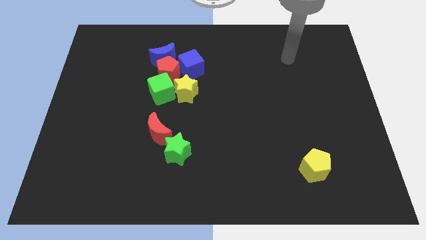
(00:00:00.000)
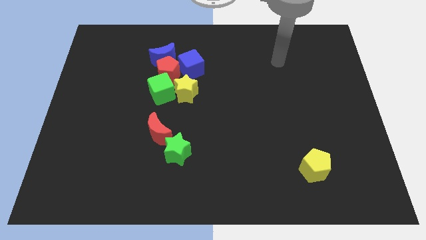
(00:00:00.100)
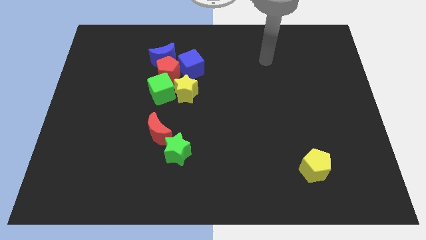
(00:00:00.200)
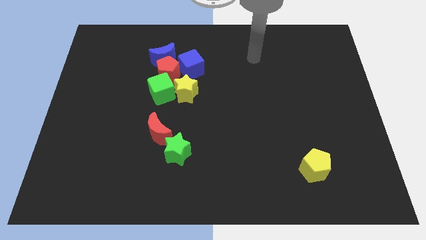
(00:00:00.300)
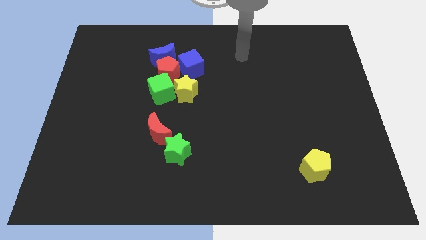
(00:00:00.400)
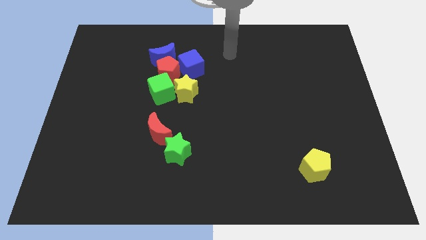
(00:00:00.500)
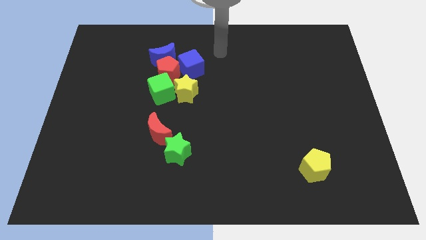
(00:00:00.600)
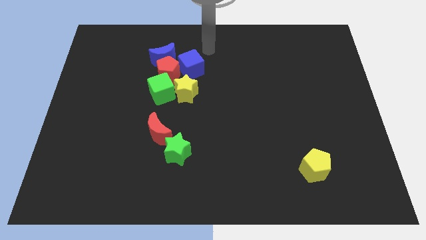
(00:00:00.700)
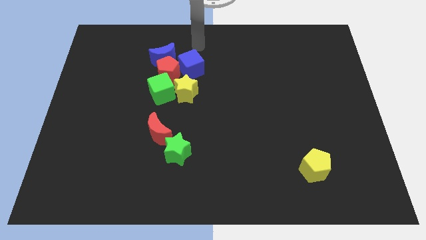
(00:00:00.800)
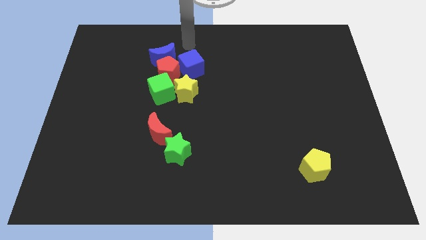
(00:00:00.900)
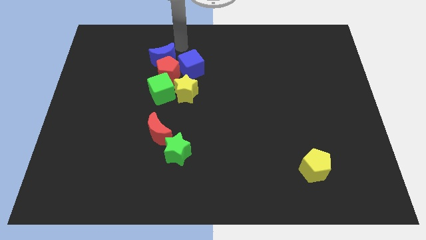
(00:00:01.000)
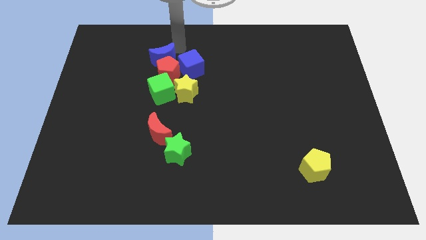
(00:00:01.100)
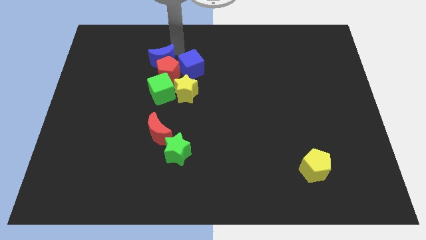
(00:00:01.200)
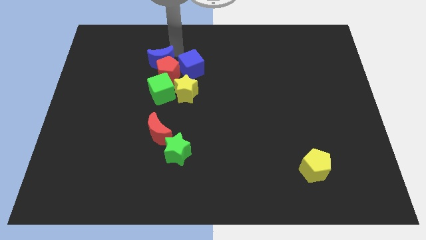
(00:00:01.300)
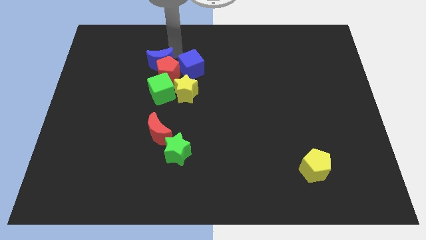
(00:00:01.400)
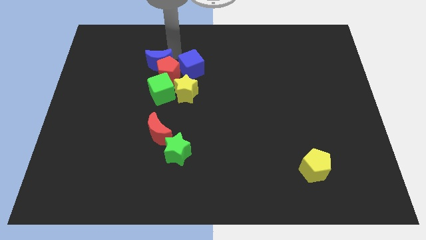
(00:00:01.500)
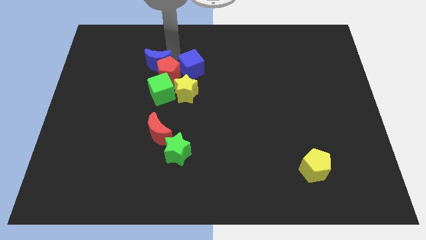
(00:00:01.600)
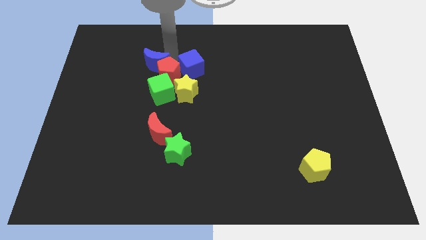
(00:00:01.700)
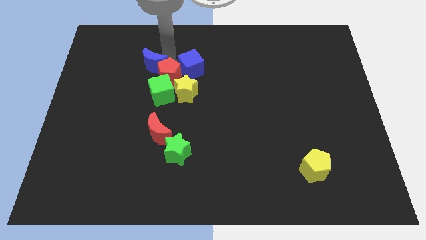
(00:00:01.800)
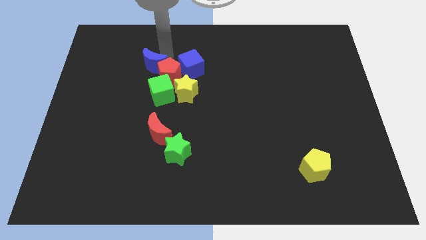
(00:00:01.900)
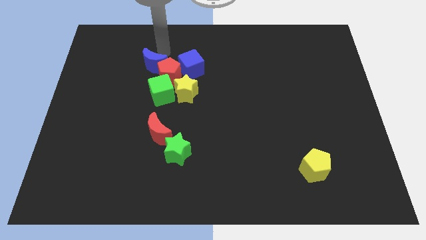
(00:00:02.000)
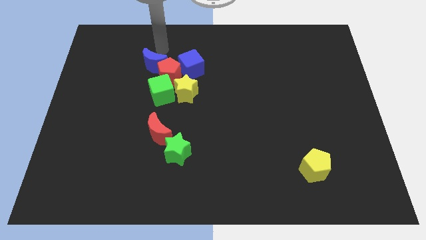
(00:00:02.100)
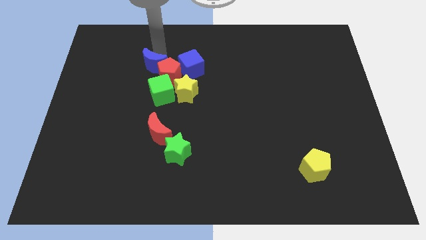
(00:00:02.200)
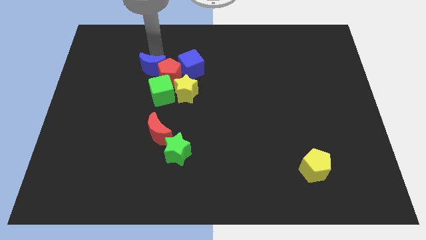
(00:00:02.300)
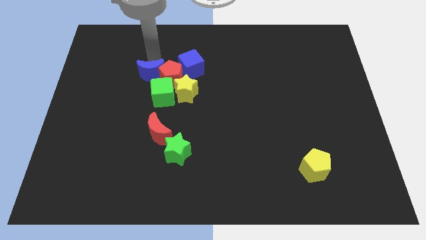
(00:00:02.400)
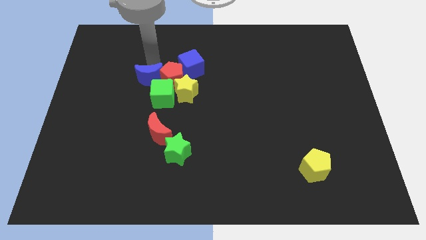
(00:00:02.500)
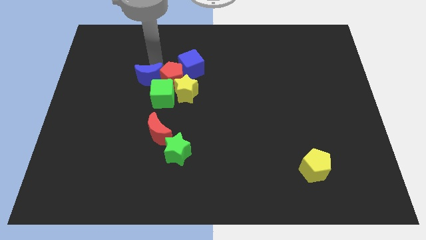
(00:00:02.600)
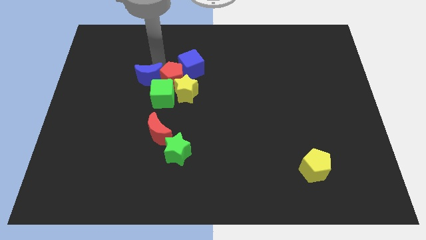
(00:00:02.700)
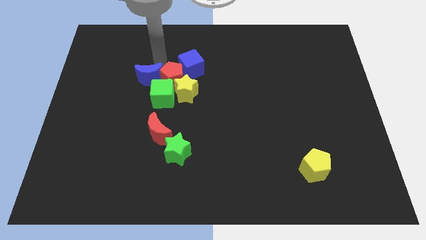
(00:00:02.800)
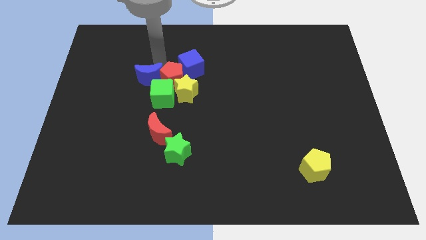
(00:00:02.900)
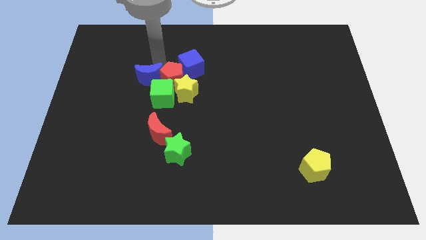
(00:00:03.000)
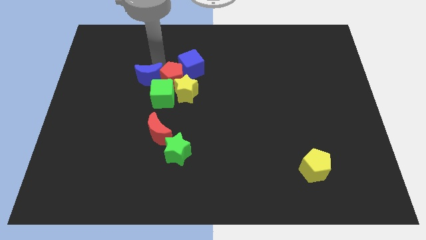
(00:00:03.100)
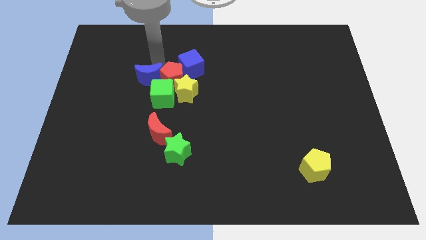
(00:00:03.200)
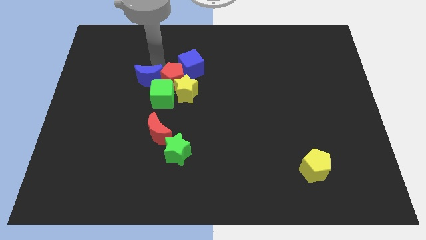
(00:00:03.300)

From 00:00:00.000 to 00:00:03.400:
move the blue moon slightly downwards

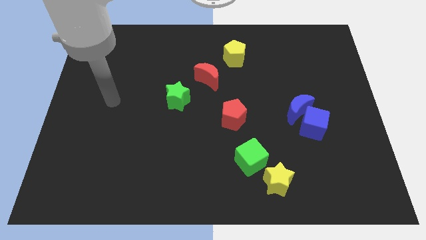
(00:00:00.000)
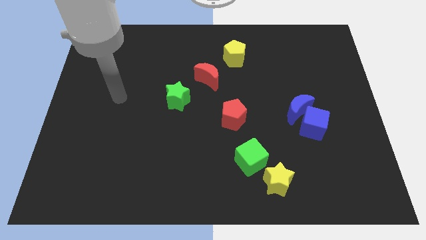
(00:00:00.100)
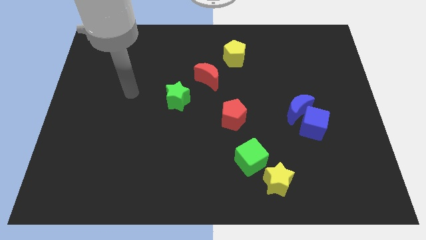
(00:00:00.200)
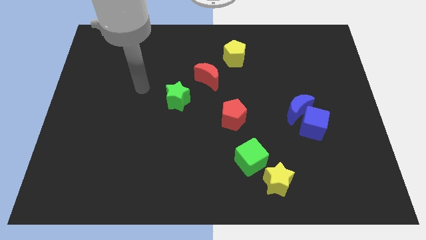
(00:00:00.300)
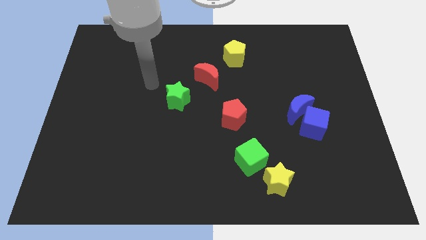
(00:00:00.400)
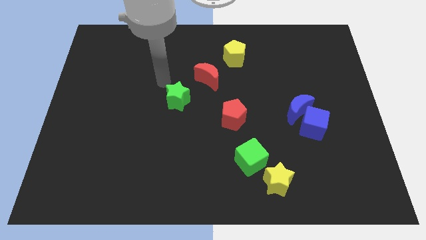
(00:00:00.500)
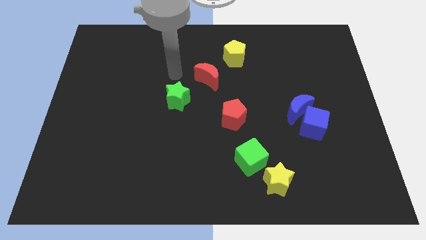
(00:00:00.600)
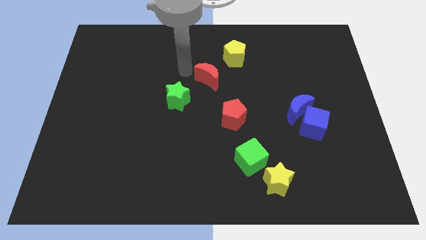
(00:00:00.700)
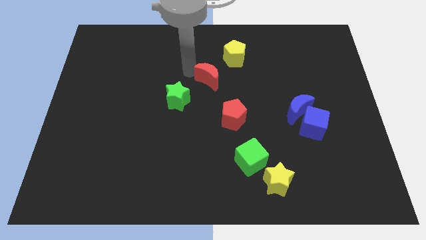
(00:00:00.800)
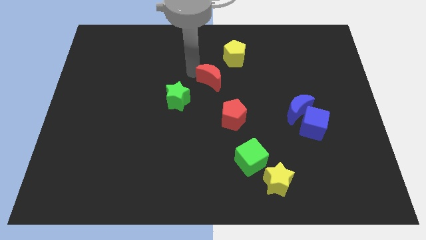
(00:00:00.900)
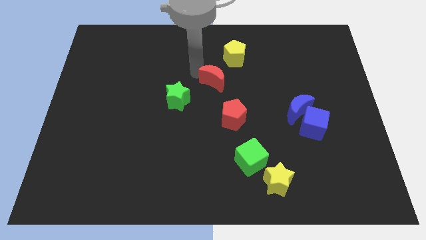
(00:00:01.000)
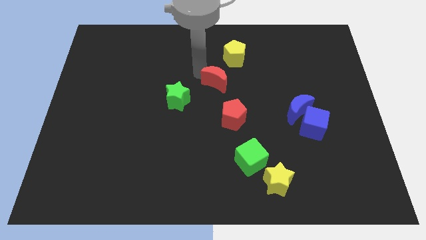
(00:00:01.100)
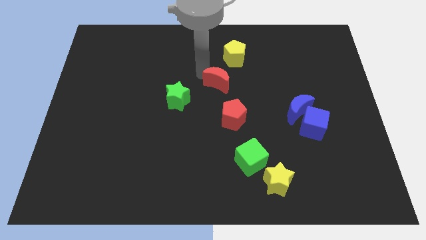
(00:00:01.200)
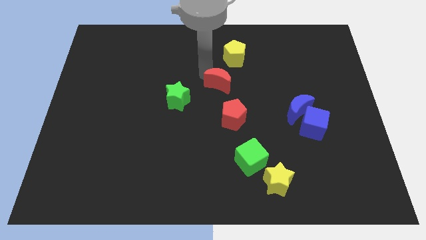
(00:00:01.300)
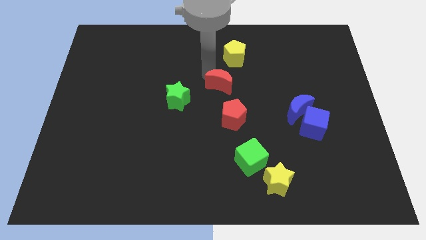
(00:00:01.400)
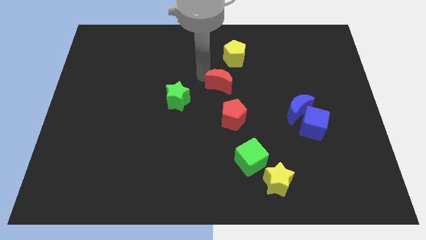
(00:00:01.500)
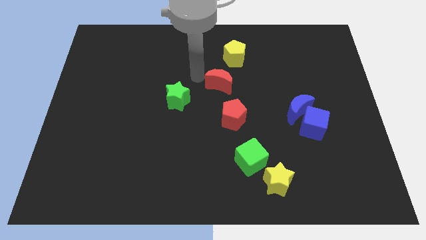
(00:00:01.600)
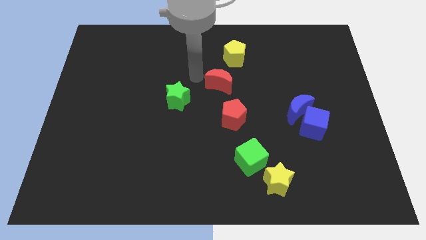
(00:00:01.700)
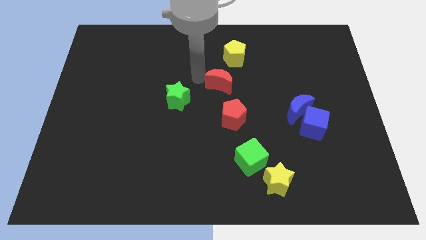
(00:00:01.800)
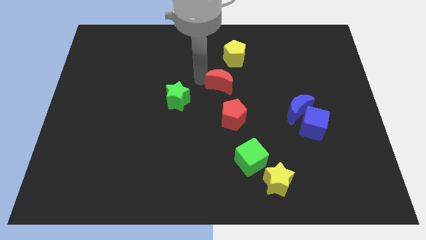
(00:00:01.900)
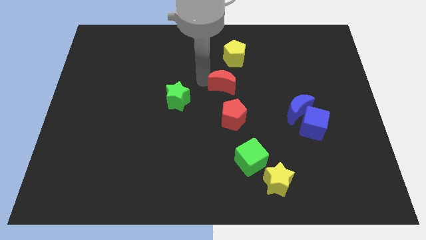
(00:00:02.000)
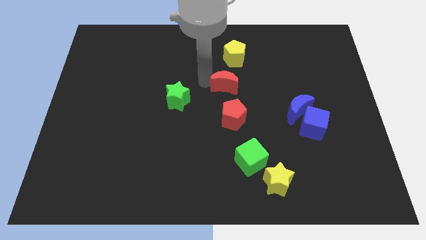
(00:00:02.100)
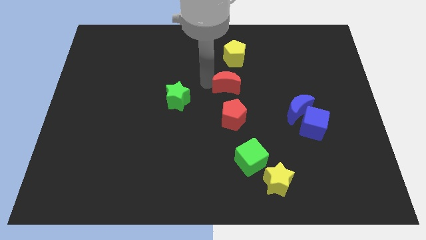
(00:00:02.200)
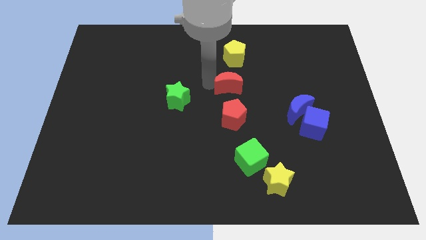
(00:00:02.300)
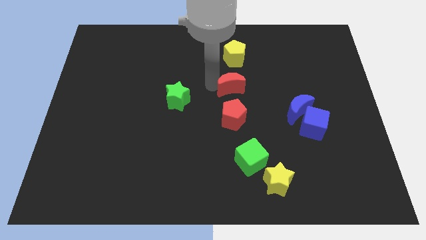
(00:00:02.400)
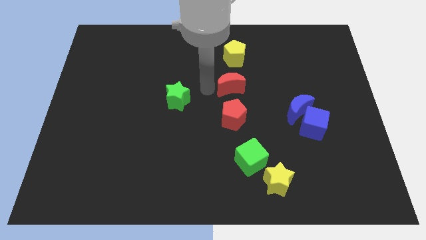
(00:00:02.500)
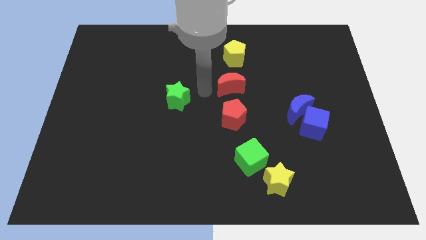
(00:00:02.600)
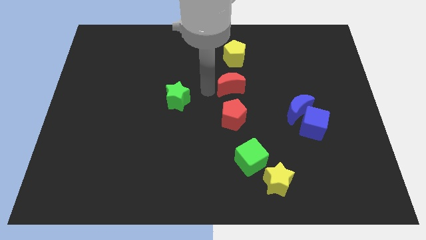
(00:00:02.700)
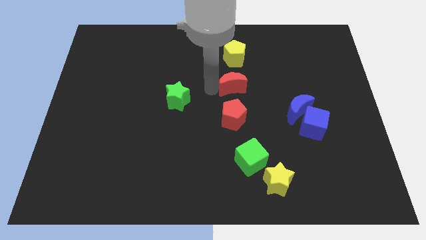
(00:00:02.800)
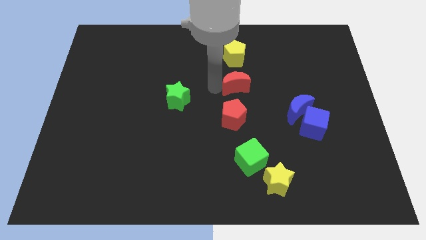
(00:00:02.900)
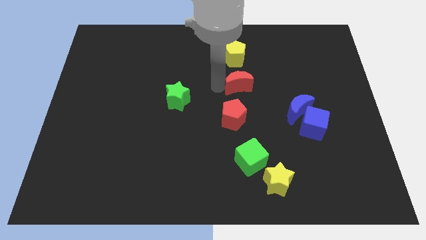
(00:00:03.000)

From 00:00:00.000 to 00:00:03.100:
move the red moon to the right a bit

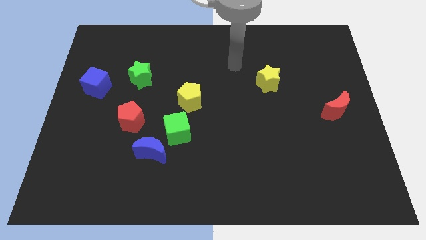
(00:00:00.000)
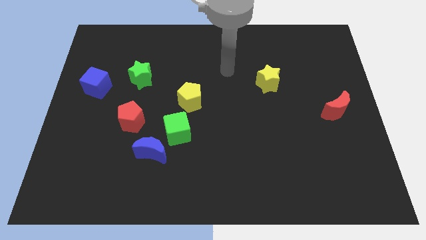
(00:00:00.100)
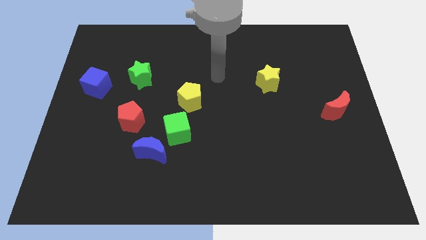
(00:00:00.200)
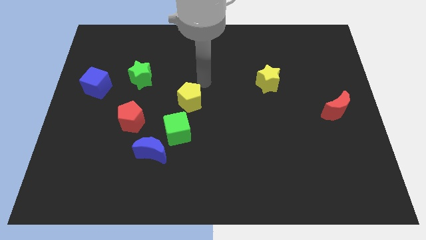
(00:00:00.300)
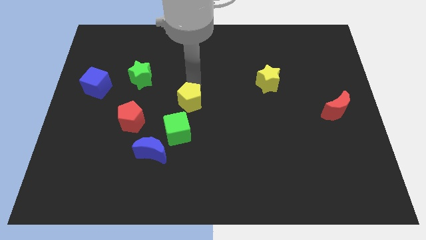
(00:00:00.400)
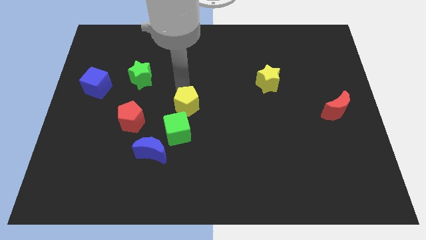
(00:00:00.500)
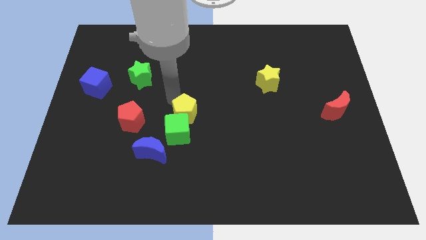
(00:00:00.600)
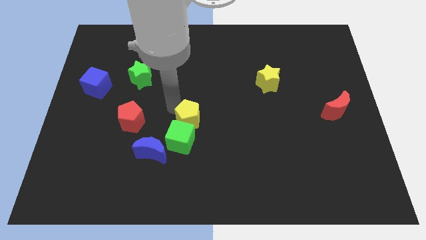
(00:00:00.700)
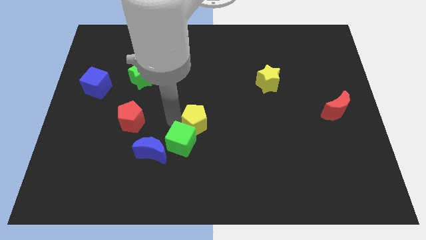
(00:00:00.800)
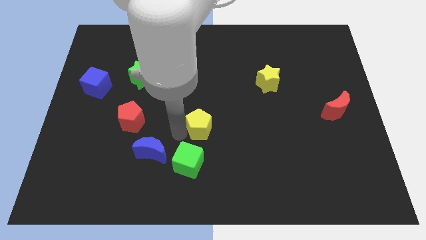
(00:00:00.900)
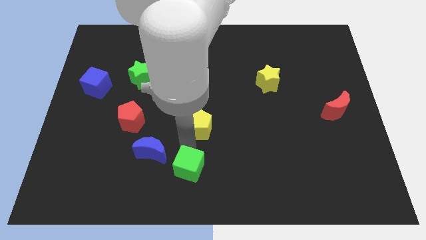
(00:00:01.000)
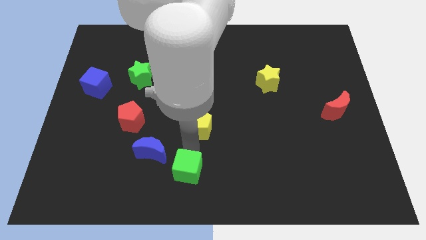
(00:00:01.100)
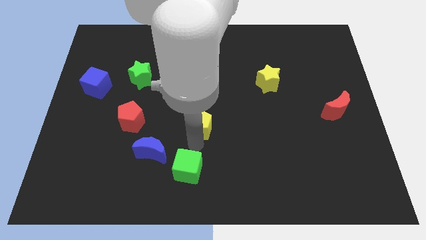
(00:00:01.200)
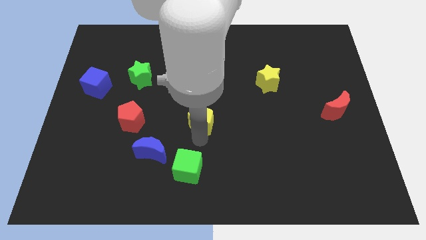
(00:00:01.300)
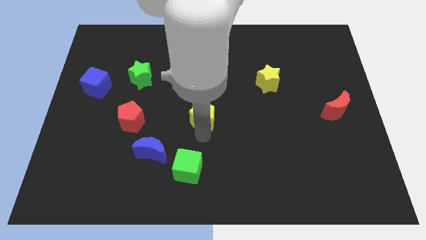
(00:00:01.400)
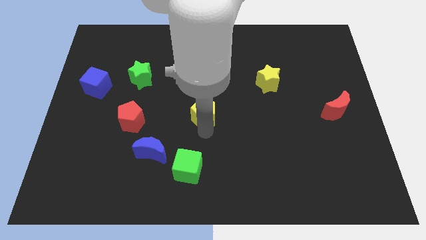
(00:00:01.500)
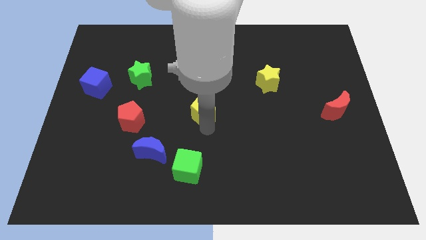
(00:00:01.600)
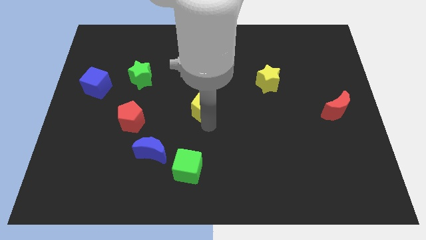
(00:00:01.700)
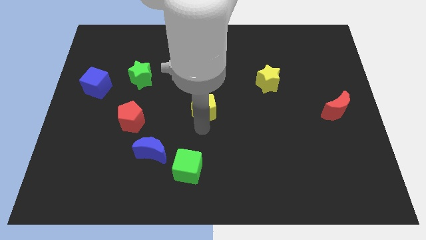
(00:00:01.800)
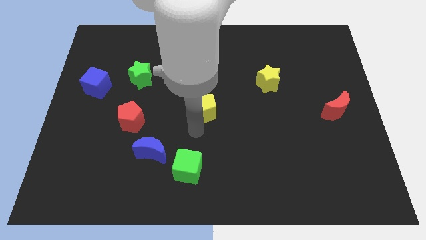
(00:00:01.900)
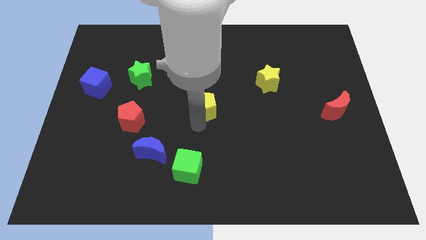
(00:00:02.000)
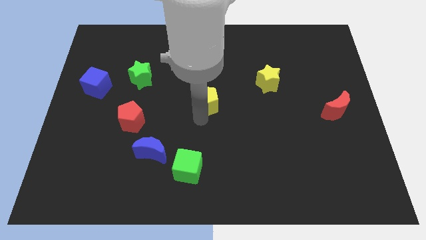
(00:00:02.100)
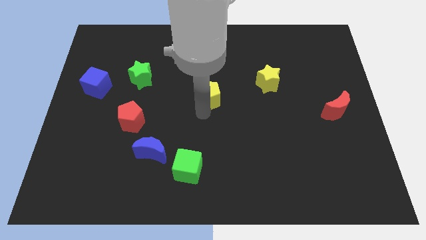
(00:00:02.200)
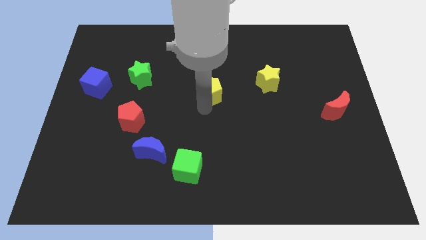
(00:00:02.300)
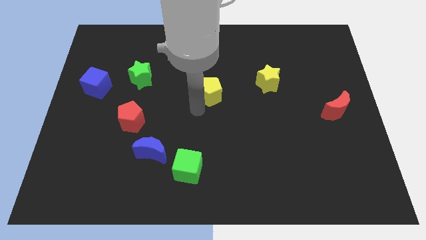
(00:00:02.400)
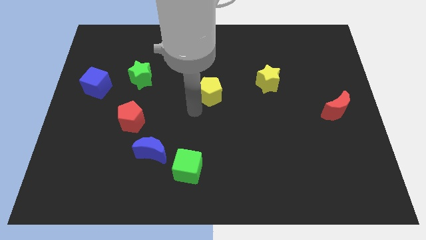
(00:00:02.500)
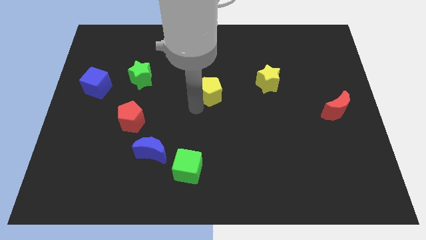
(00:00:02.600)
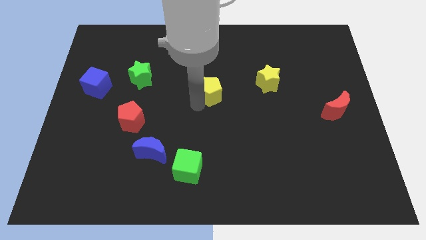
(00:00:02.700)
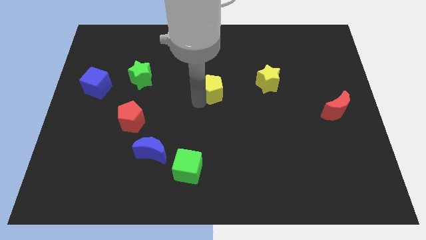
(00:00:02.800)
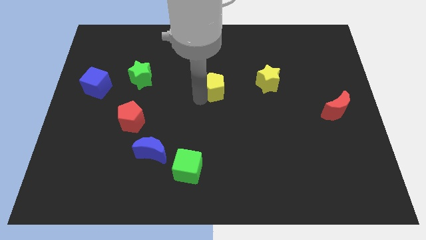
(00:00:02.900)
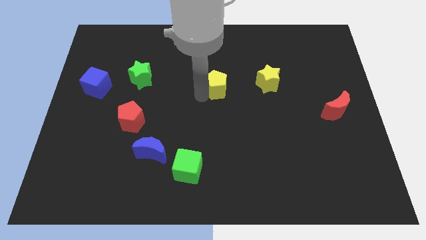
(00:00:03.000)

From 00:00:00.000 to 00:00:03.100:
slide the yellow pentagon slightly upwards and then right
